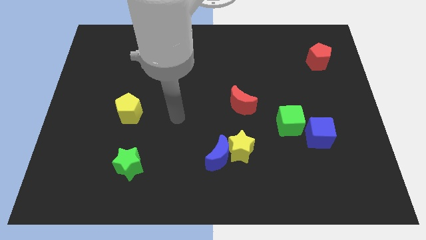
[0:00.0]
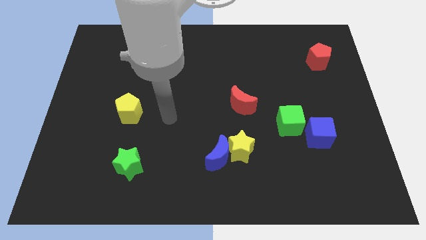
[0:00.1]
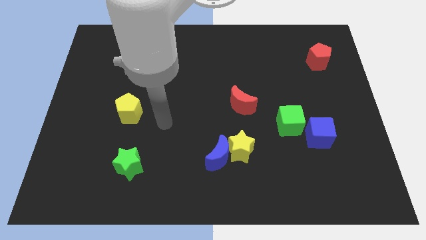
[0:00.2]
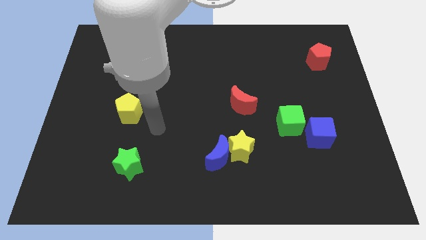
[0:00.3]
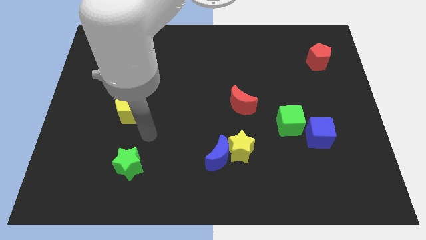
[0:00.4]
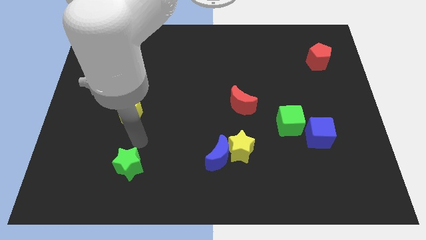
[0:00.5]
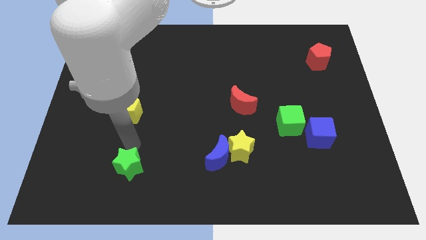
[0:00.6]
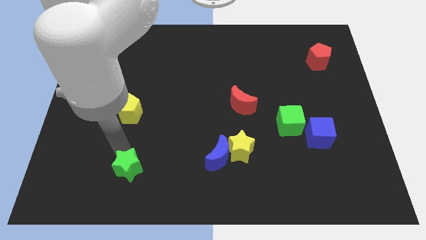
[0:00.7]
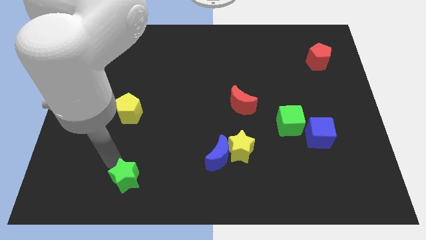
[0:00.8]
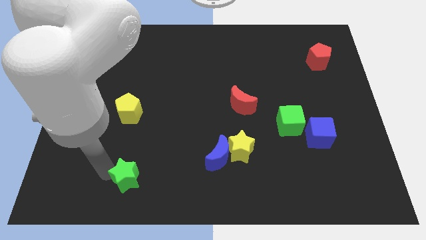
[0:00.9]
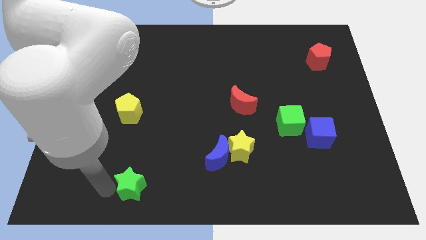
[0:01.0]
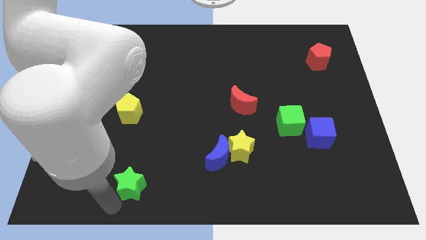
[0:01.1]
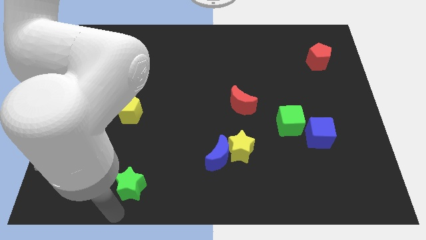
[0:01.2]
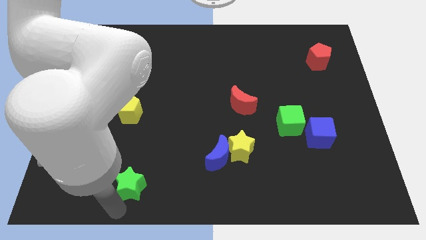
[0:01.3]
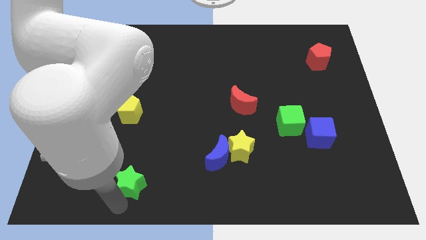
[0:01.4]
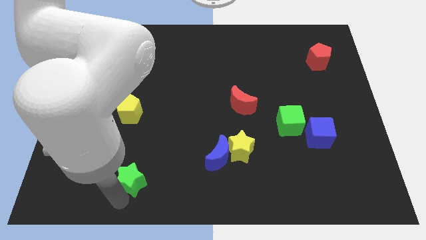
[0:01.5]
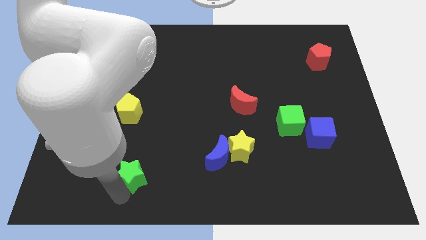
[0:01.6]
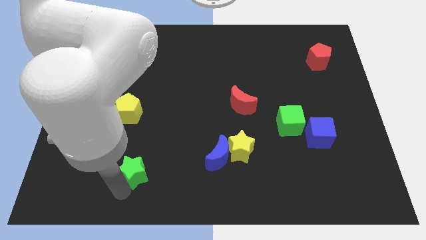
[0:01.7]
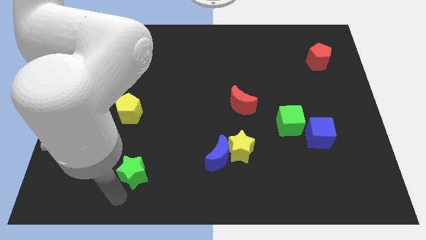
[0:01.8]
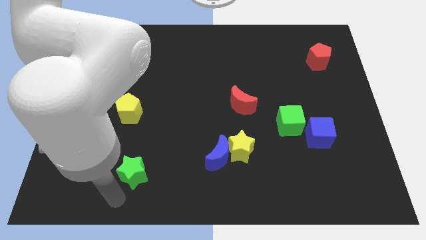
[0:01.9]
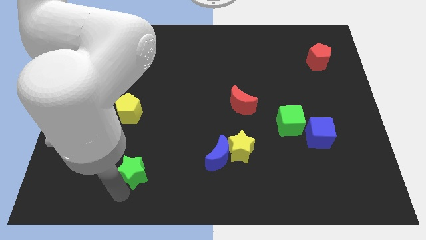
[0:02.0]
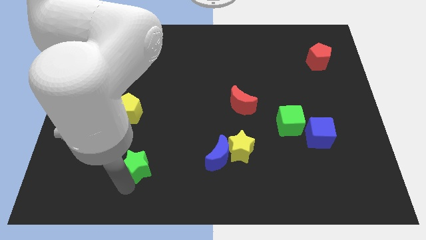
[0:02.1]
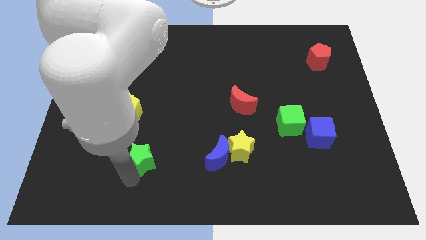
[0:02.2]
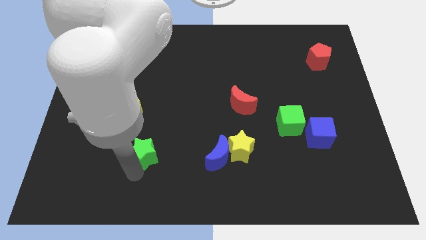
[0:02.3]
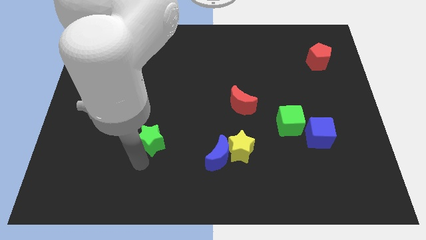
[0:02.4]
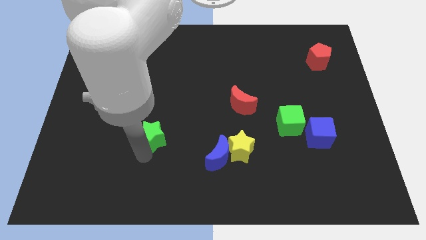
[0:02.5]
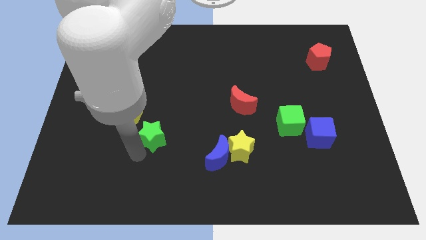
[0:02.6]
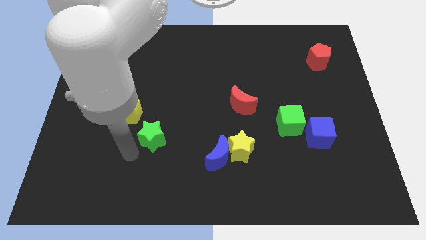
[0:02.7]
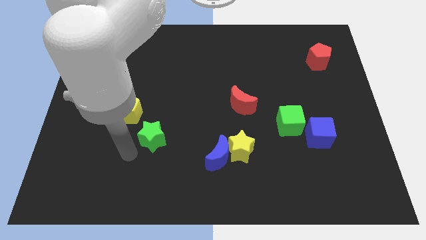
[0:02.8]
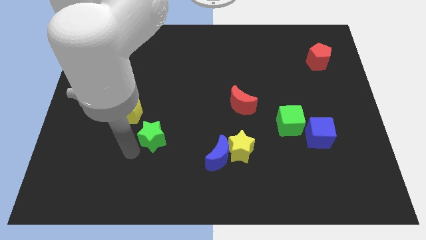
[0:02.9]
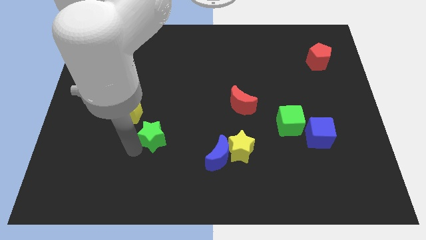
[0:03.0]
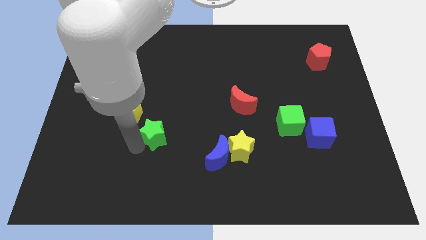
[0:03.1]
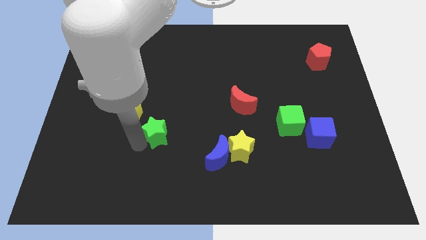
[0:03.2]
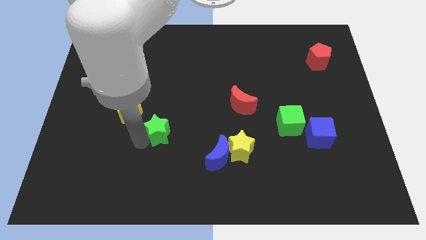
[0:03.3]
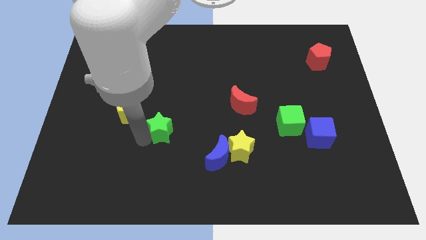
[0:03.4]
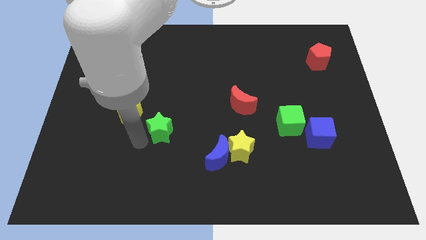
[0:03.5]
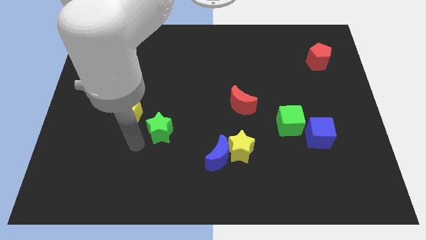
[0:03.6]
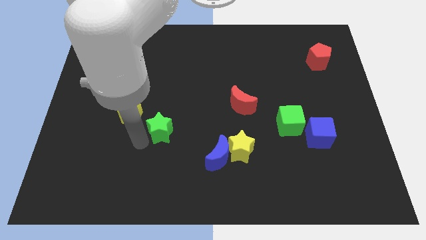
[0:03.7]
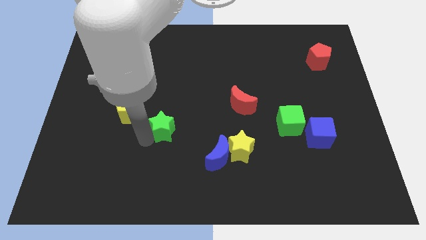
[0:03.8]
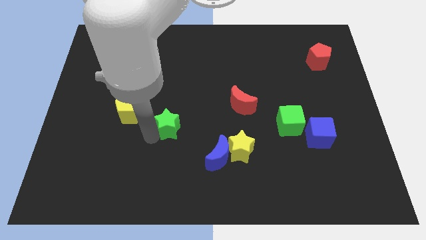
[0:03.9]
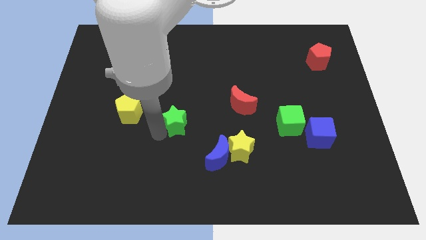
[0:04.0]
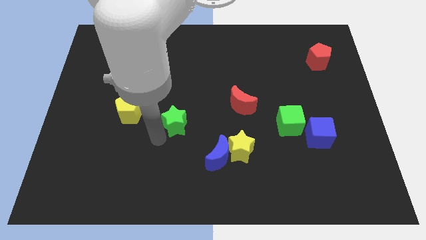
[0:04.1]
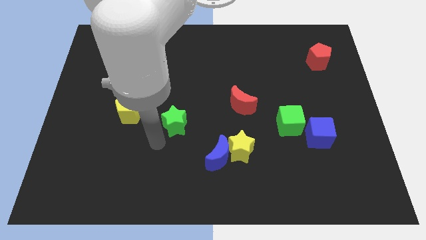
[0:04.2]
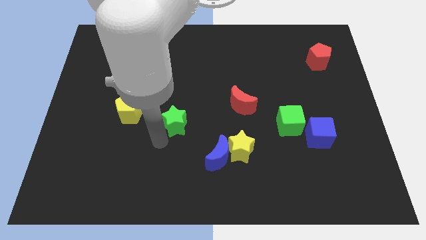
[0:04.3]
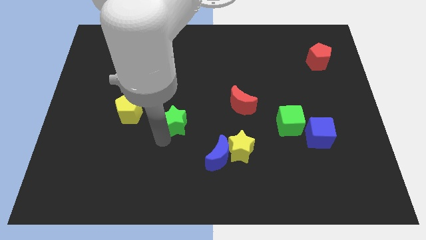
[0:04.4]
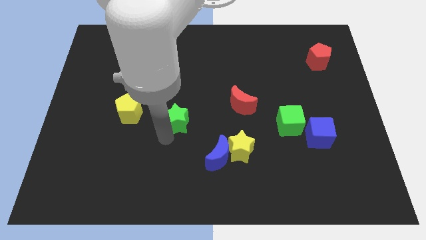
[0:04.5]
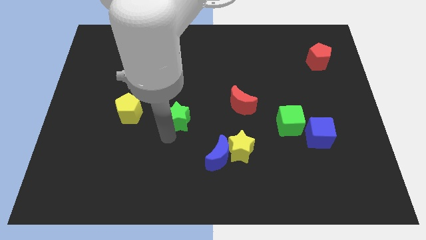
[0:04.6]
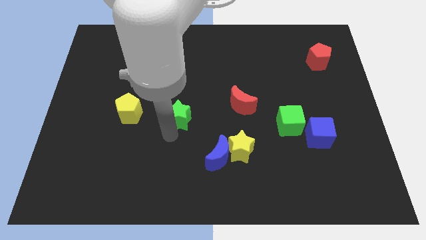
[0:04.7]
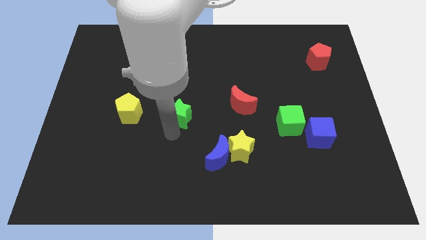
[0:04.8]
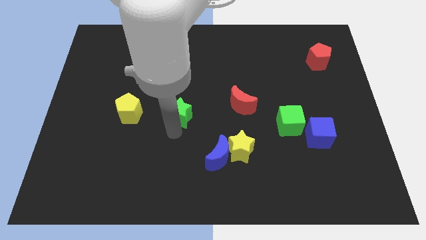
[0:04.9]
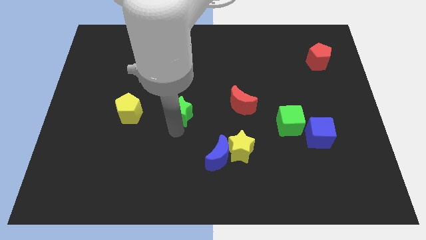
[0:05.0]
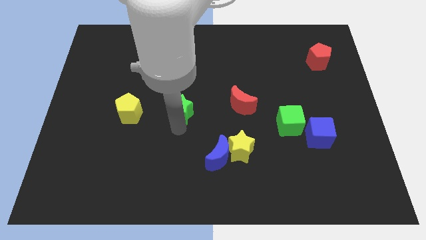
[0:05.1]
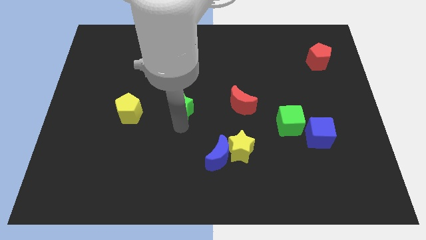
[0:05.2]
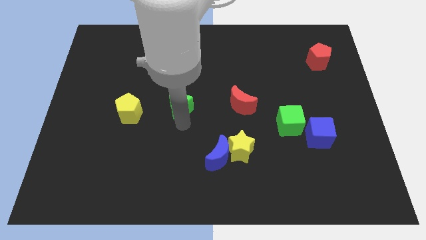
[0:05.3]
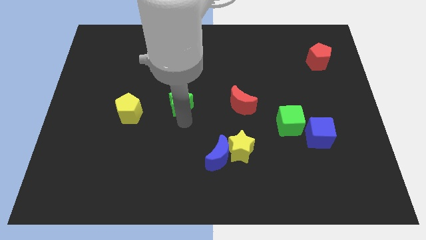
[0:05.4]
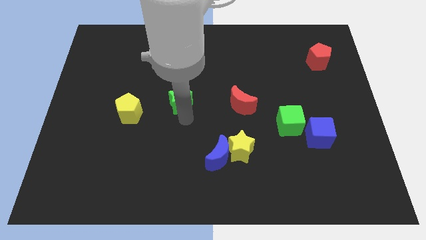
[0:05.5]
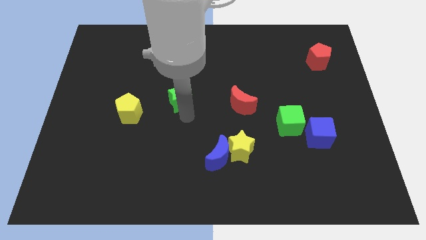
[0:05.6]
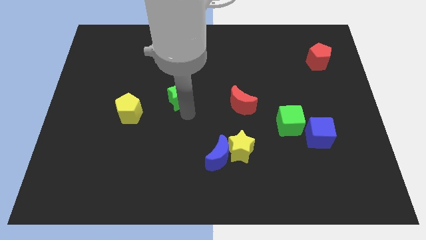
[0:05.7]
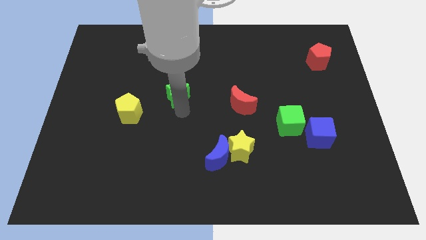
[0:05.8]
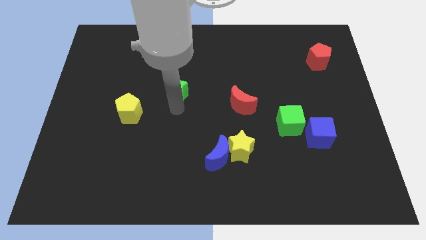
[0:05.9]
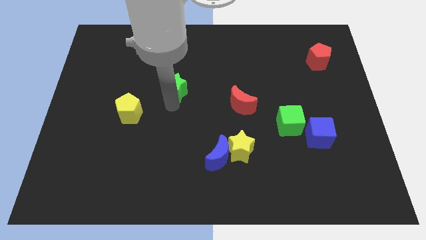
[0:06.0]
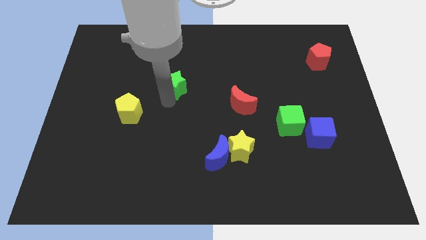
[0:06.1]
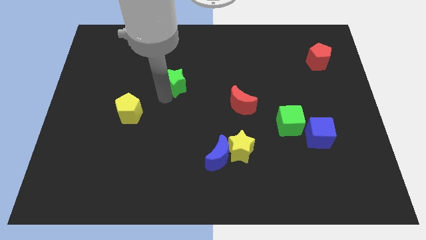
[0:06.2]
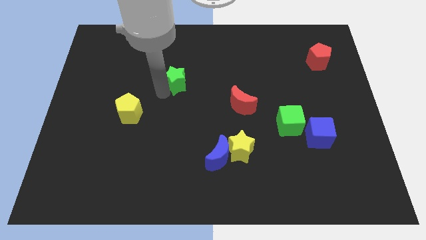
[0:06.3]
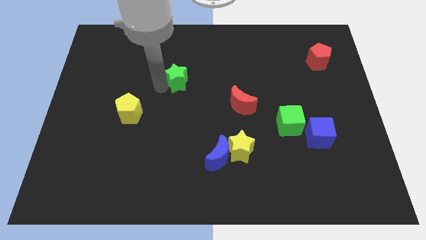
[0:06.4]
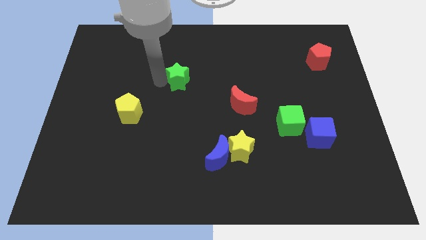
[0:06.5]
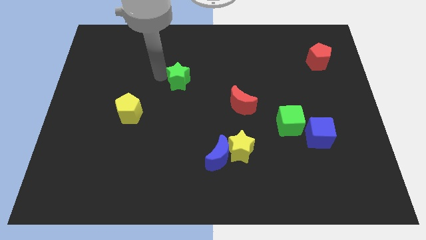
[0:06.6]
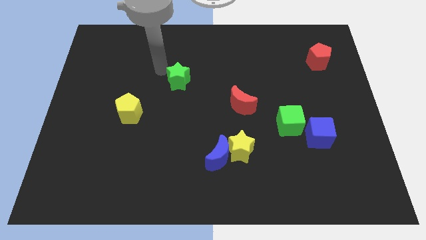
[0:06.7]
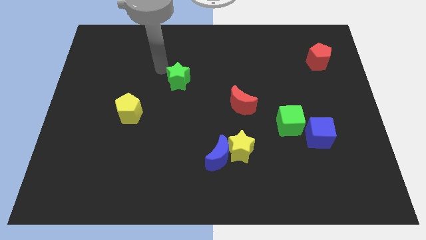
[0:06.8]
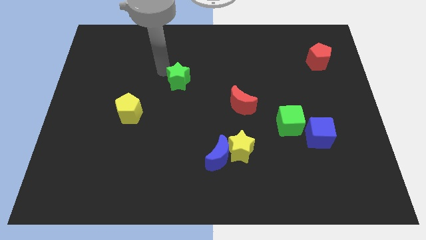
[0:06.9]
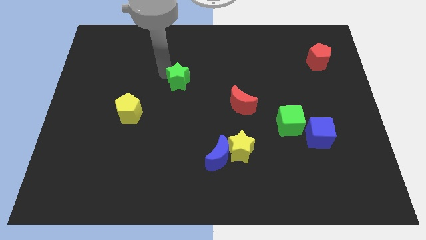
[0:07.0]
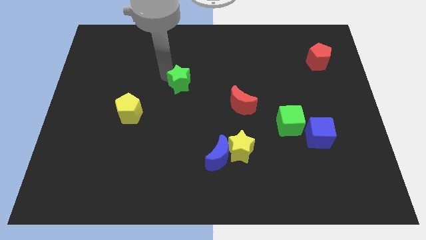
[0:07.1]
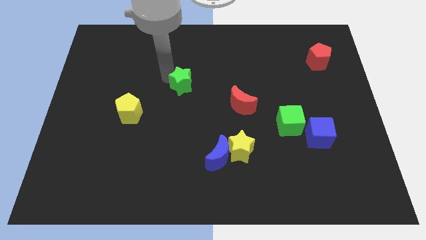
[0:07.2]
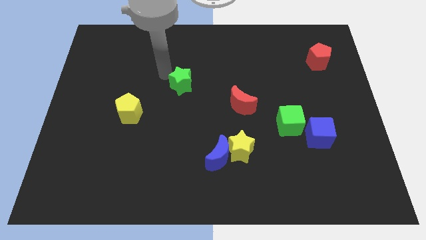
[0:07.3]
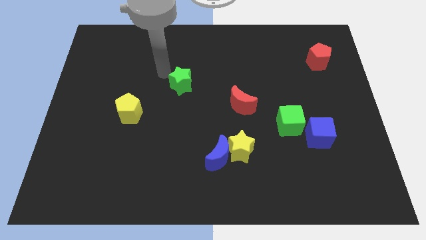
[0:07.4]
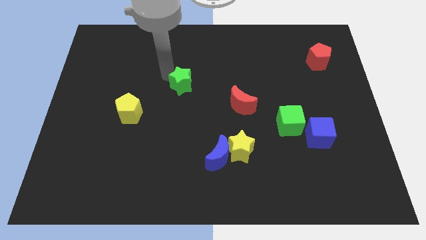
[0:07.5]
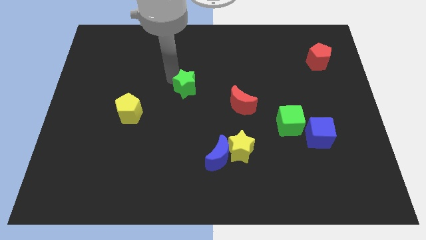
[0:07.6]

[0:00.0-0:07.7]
move the green star up and then to the right

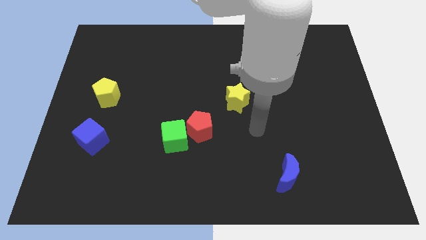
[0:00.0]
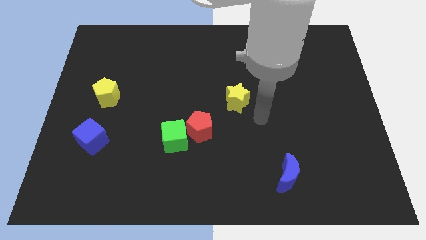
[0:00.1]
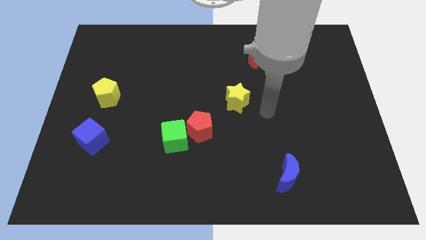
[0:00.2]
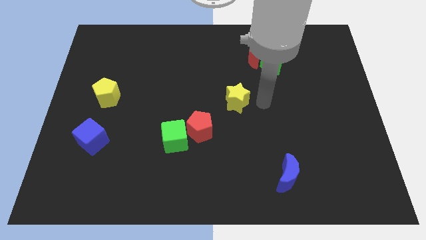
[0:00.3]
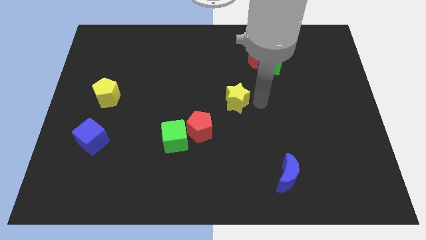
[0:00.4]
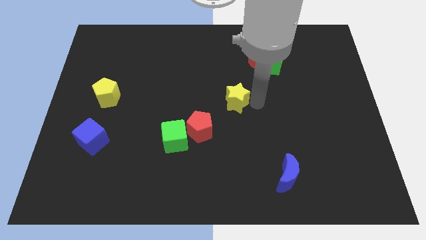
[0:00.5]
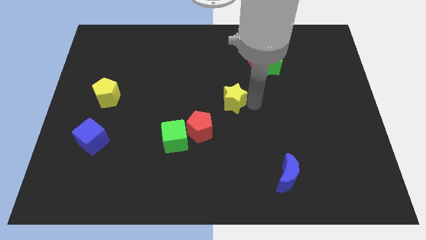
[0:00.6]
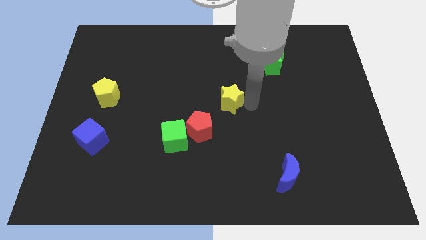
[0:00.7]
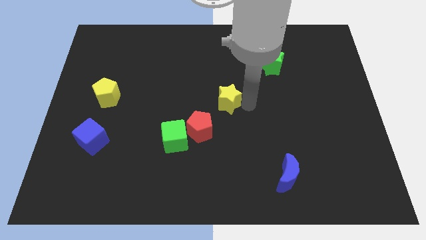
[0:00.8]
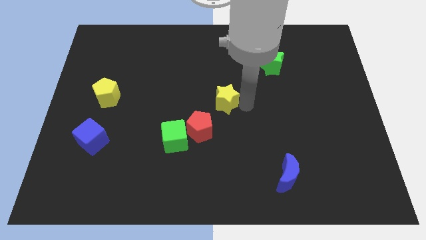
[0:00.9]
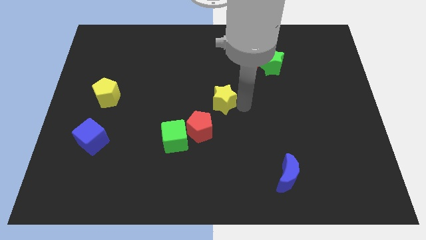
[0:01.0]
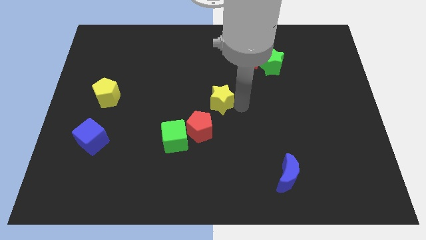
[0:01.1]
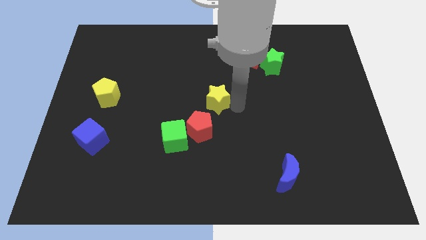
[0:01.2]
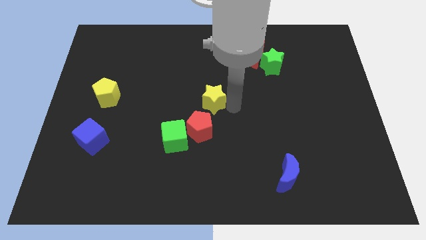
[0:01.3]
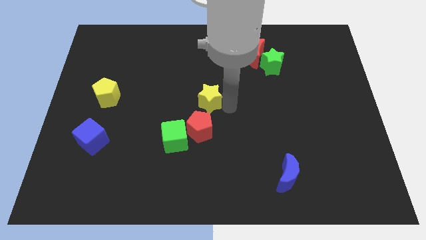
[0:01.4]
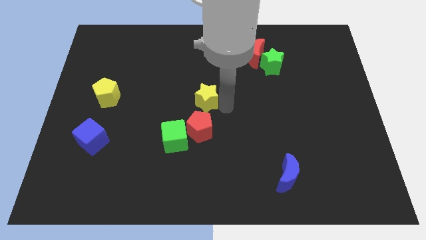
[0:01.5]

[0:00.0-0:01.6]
slightly push the yellow star left
